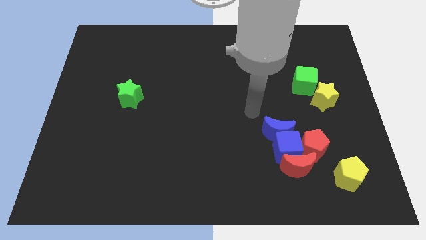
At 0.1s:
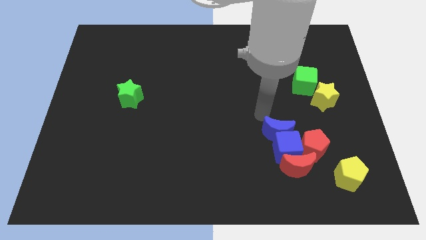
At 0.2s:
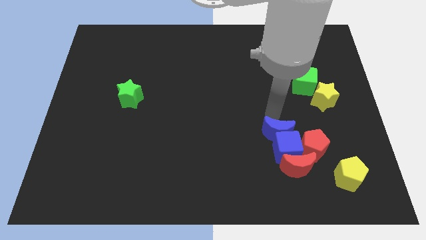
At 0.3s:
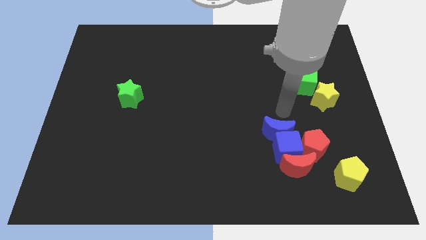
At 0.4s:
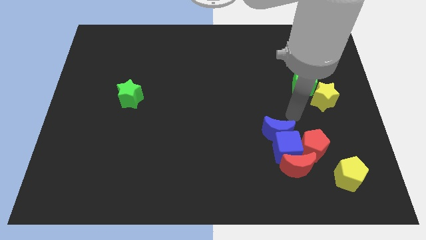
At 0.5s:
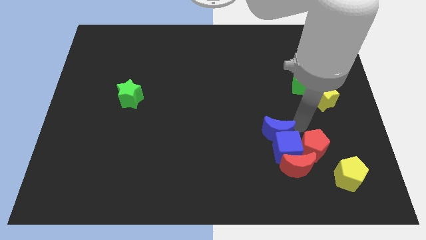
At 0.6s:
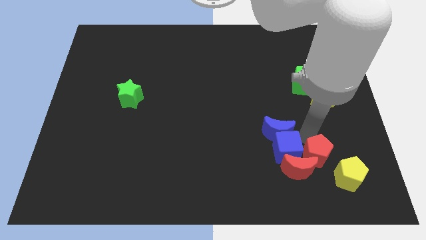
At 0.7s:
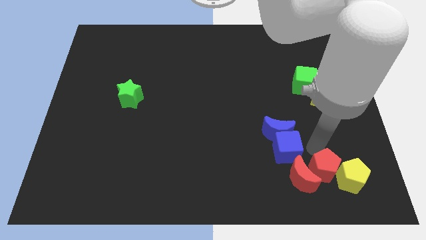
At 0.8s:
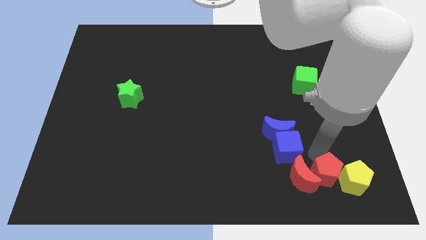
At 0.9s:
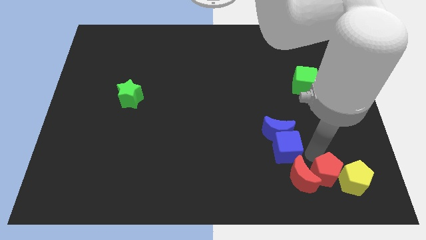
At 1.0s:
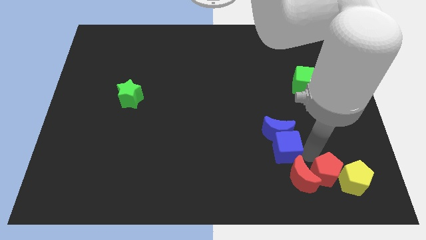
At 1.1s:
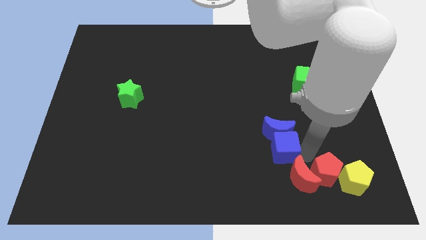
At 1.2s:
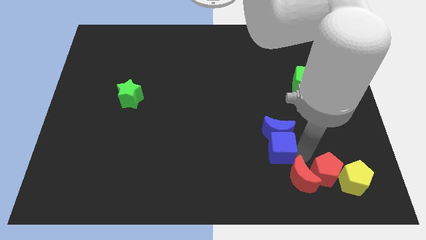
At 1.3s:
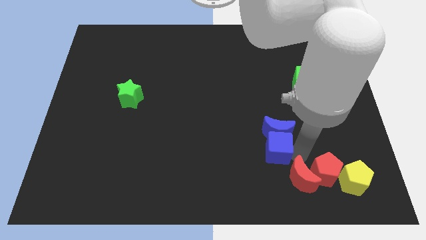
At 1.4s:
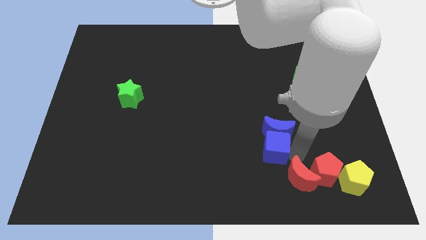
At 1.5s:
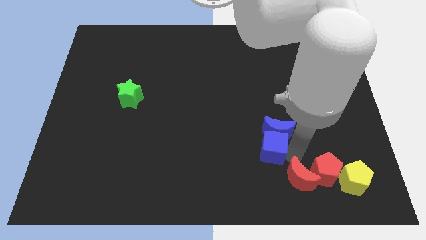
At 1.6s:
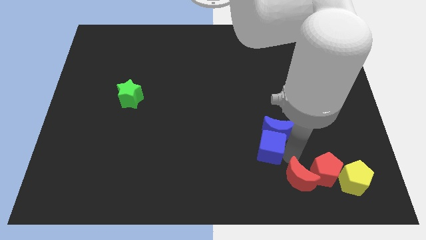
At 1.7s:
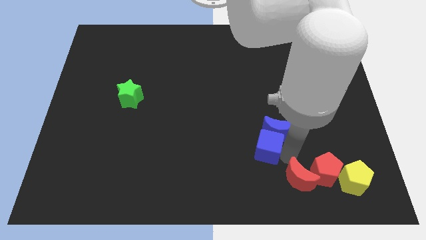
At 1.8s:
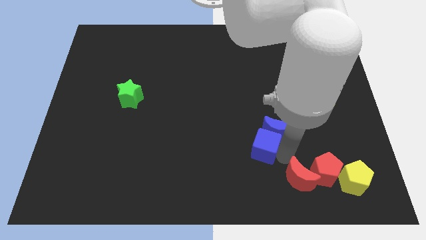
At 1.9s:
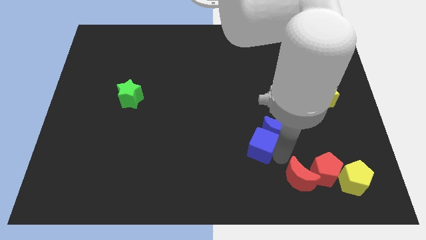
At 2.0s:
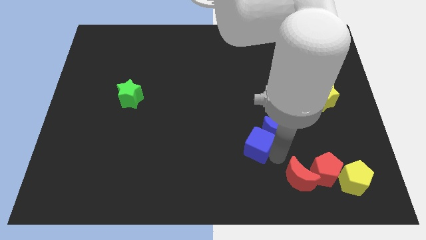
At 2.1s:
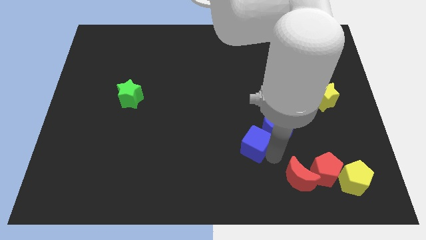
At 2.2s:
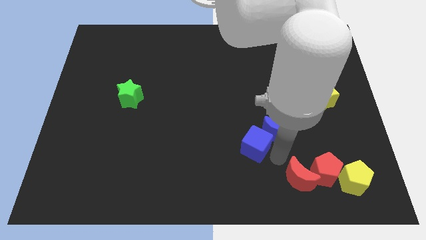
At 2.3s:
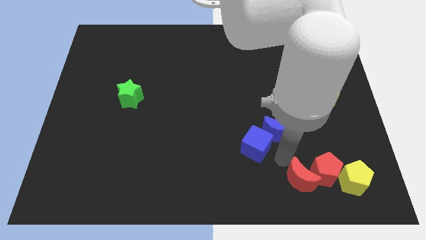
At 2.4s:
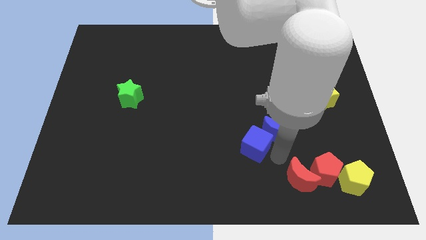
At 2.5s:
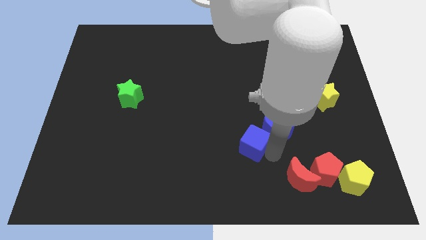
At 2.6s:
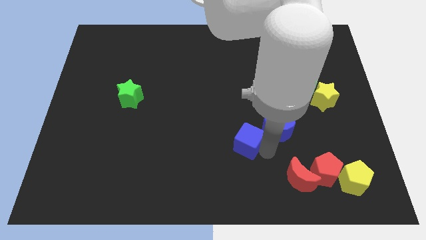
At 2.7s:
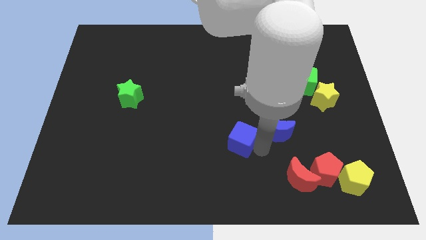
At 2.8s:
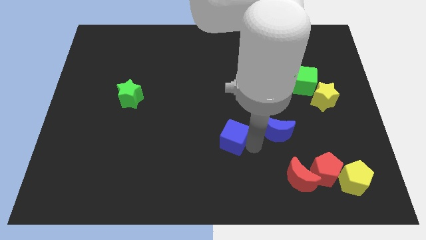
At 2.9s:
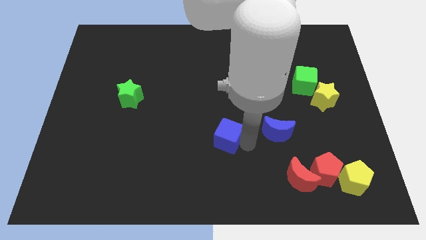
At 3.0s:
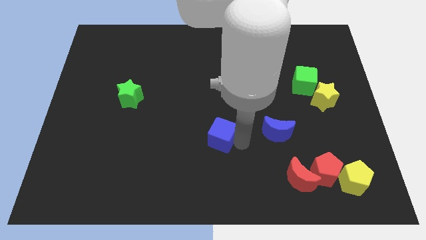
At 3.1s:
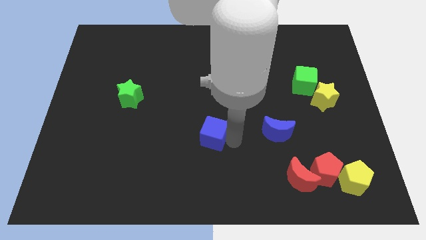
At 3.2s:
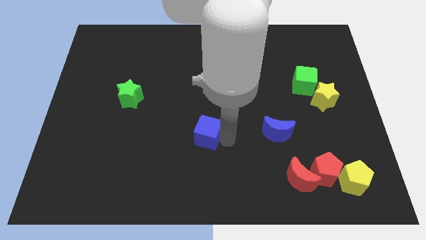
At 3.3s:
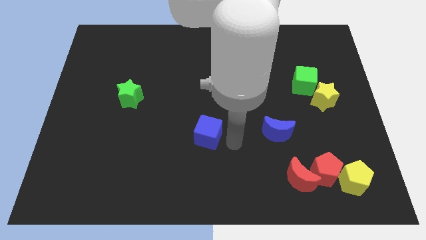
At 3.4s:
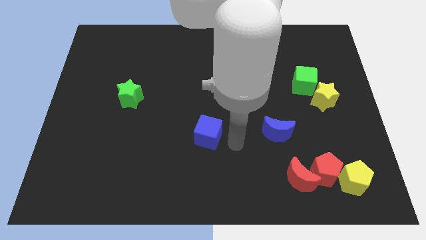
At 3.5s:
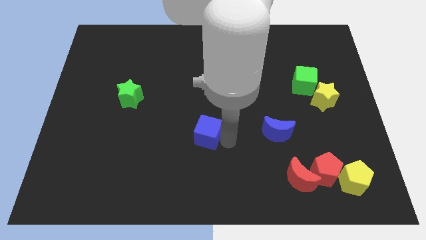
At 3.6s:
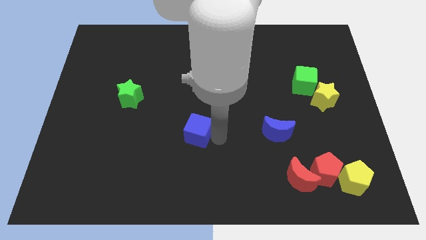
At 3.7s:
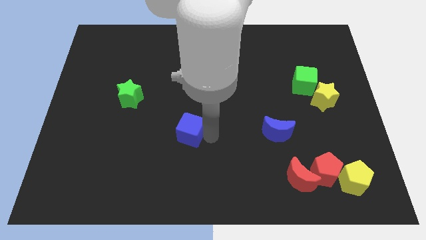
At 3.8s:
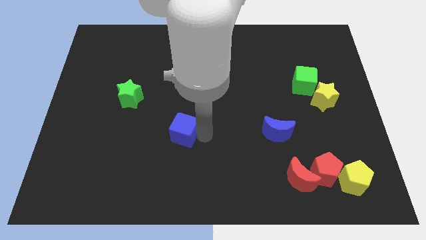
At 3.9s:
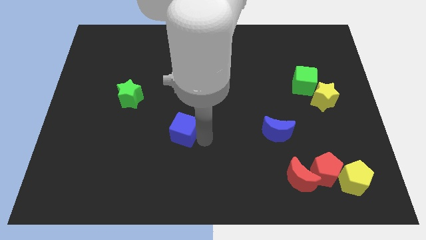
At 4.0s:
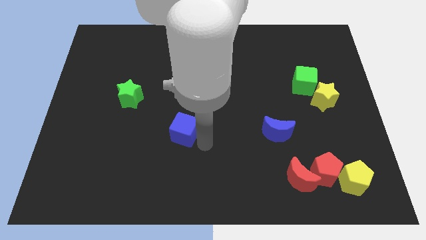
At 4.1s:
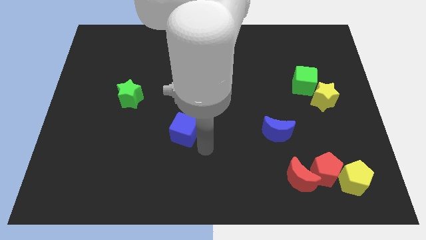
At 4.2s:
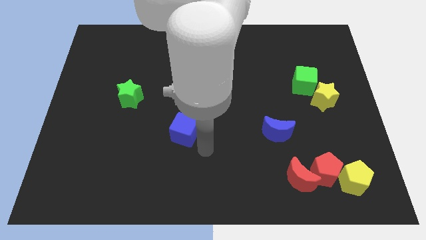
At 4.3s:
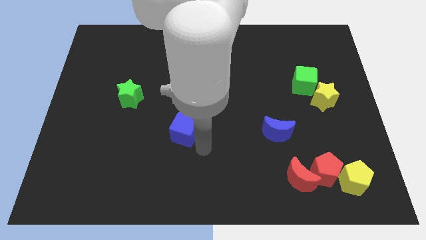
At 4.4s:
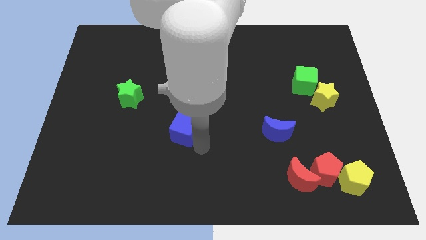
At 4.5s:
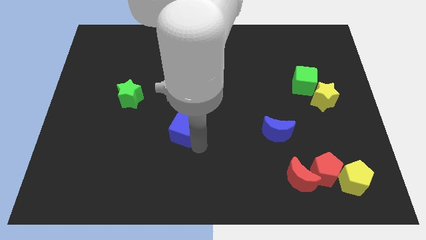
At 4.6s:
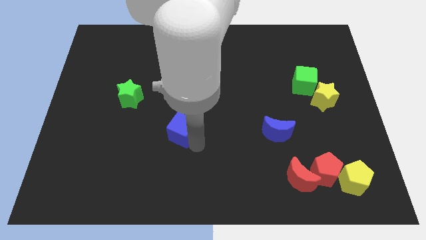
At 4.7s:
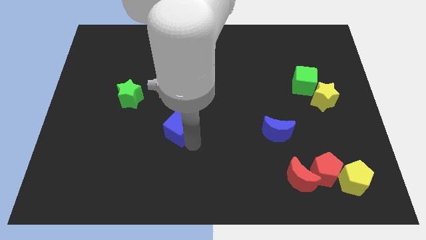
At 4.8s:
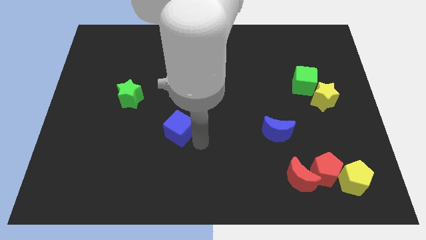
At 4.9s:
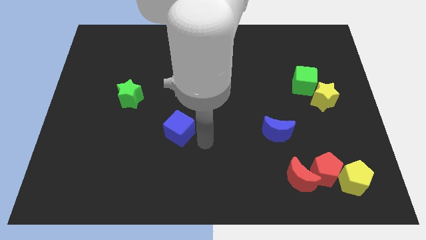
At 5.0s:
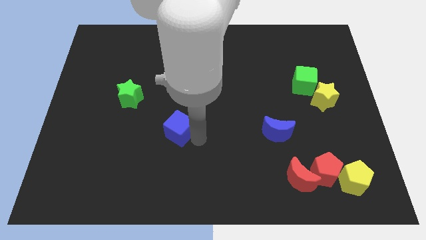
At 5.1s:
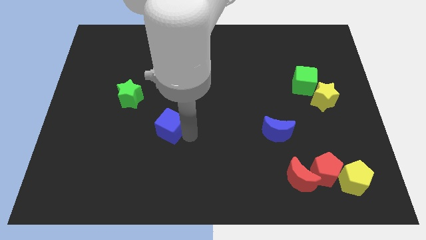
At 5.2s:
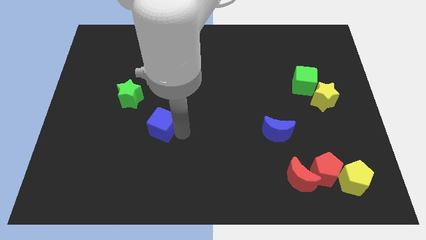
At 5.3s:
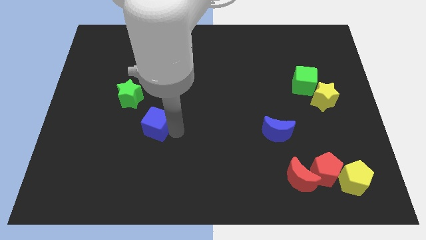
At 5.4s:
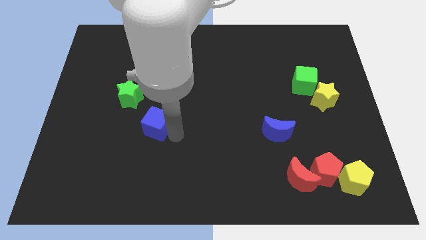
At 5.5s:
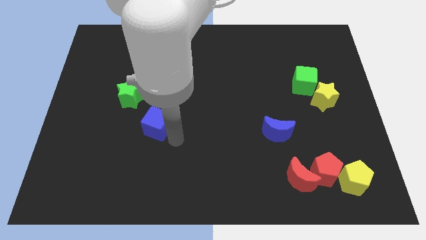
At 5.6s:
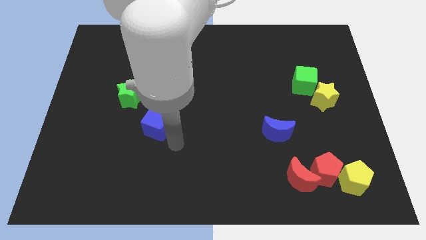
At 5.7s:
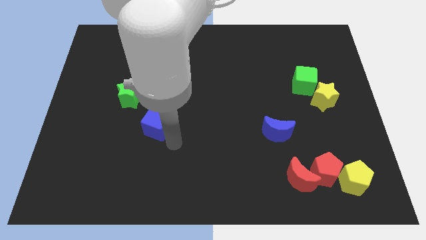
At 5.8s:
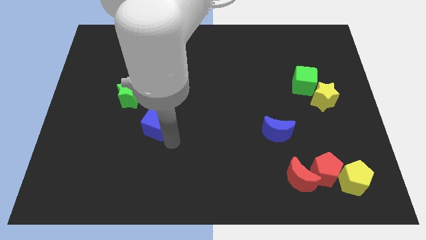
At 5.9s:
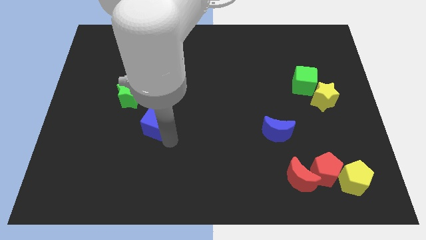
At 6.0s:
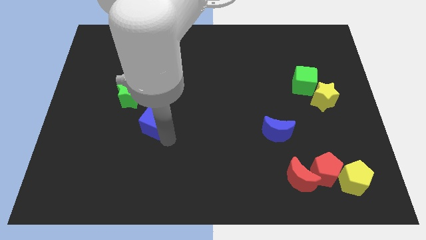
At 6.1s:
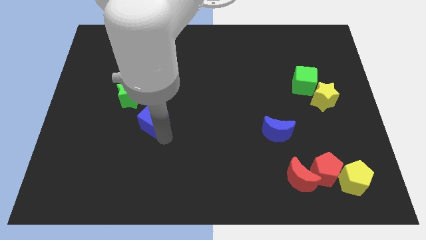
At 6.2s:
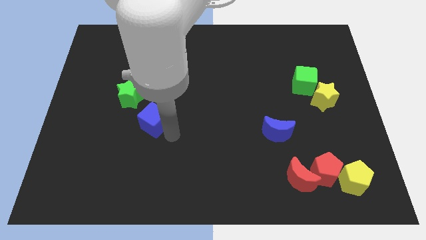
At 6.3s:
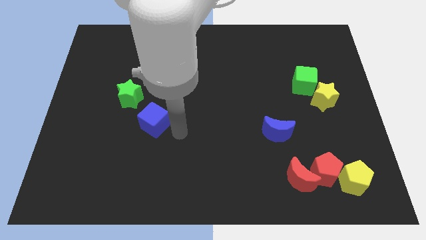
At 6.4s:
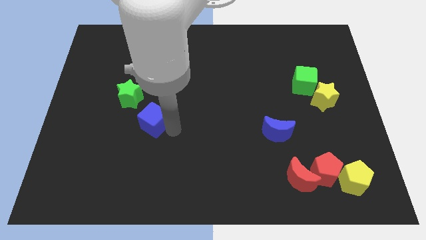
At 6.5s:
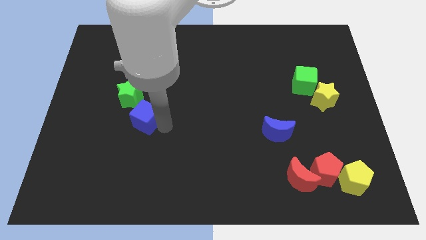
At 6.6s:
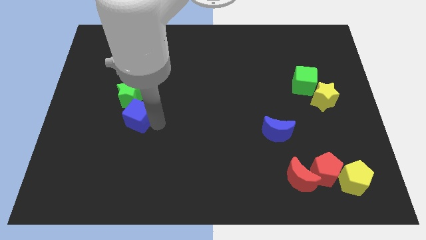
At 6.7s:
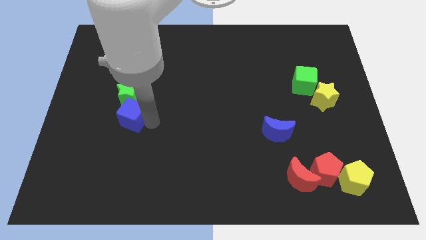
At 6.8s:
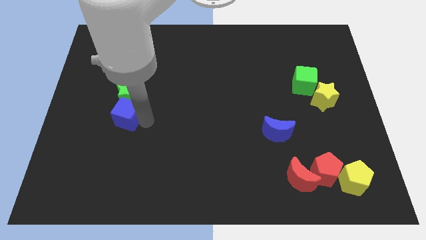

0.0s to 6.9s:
slide the blue cube diagonally down and to the left of the green star
